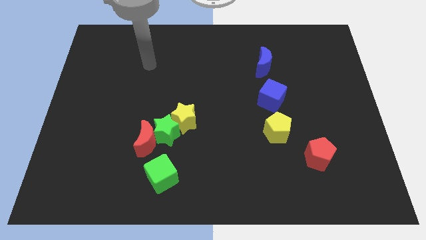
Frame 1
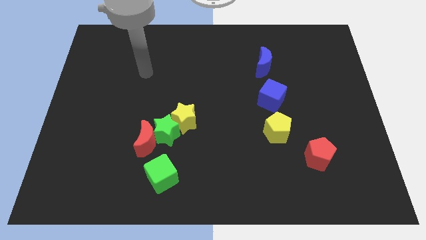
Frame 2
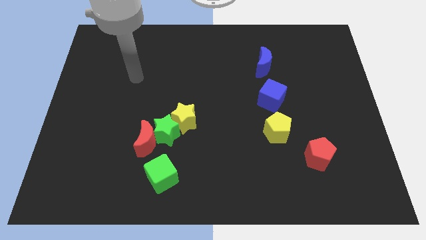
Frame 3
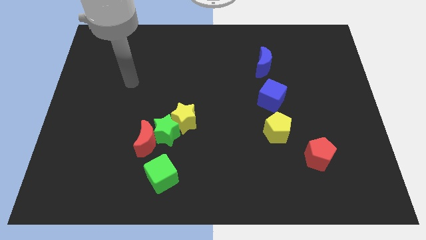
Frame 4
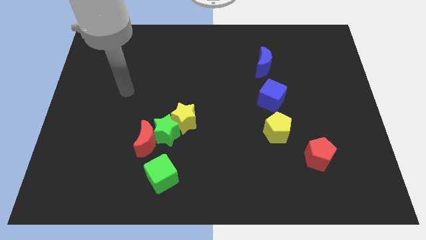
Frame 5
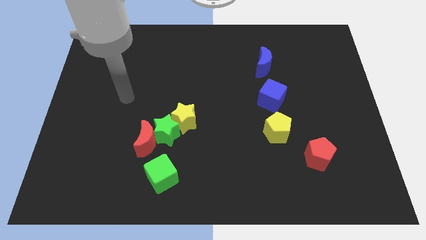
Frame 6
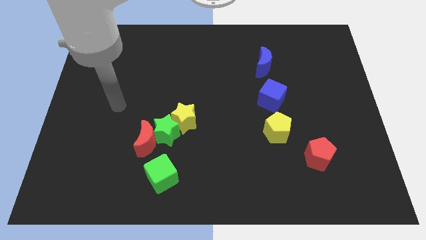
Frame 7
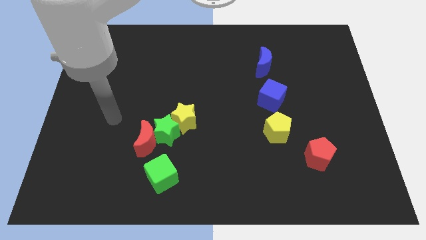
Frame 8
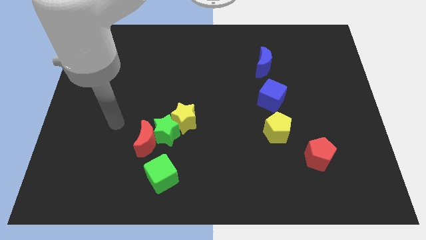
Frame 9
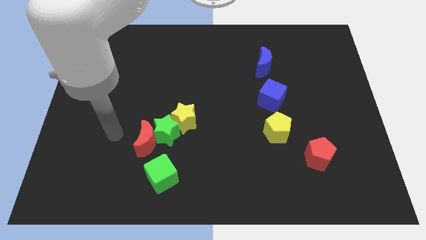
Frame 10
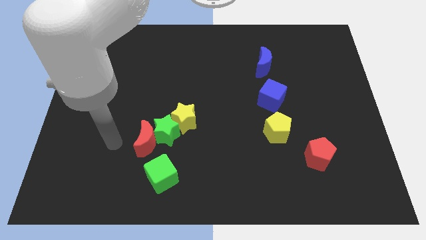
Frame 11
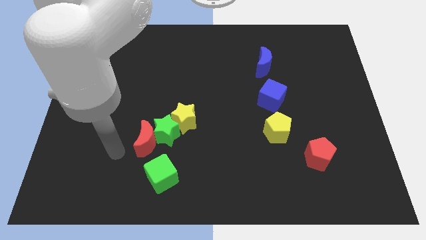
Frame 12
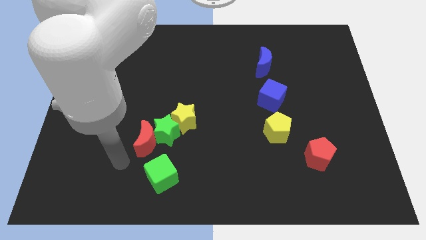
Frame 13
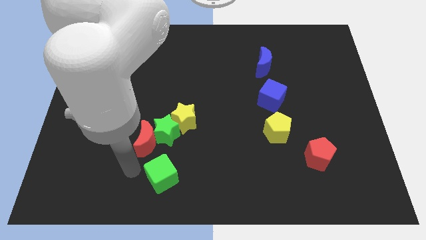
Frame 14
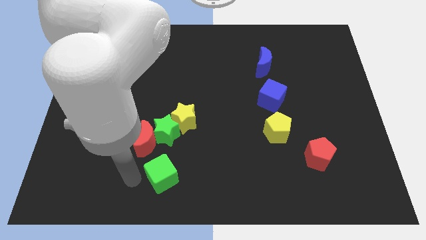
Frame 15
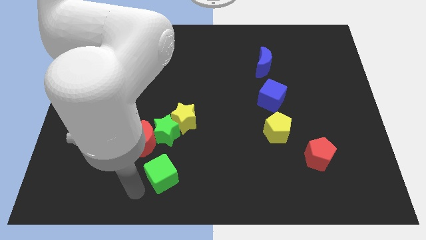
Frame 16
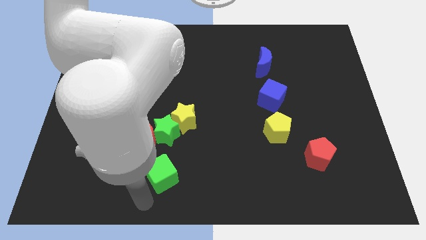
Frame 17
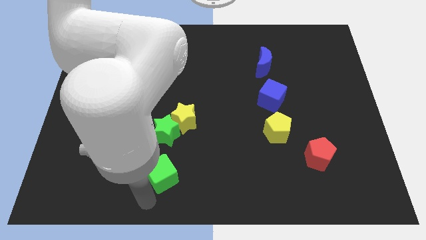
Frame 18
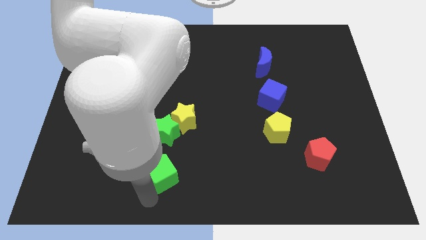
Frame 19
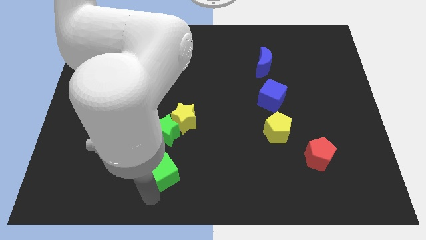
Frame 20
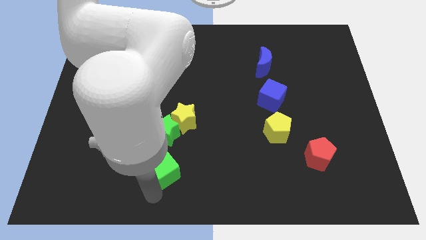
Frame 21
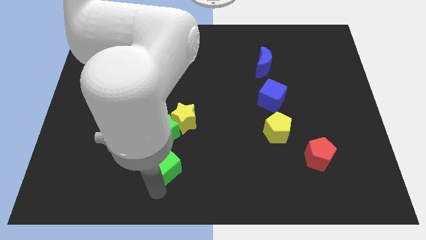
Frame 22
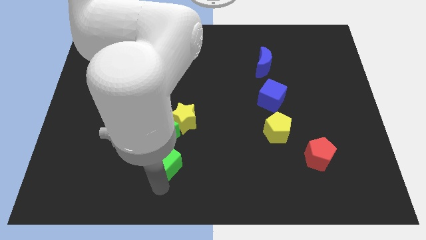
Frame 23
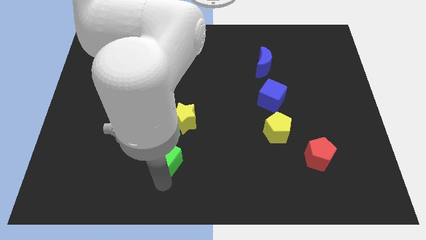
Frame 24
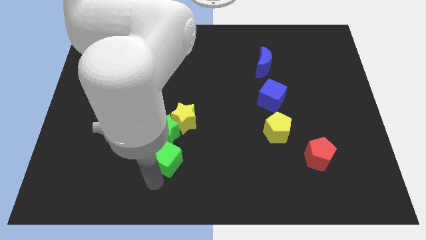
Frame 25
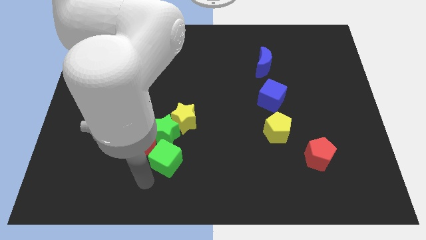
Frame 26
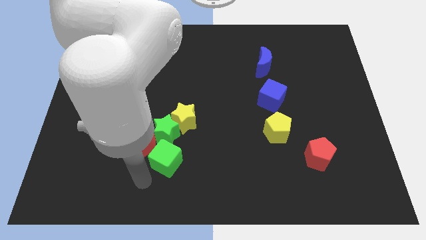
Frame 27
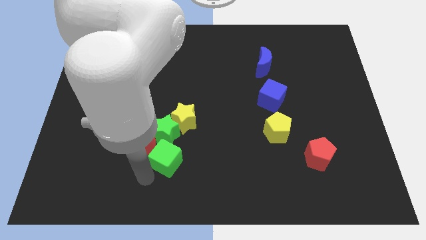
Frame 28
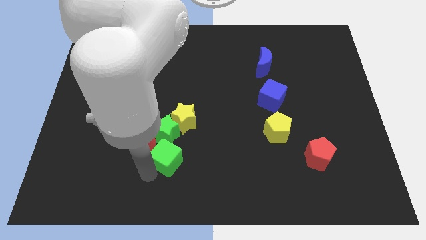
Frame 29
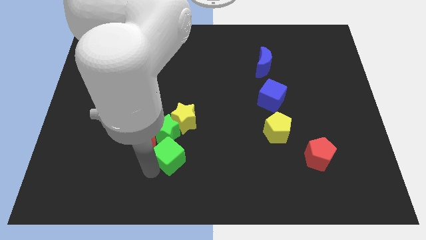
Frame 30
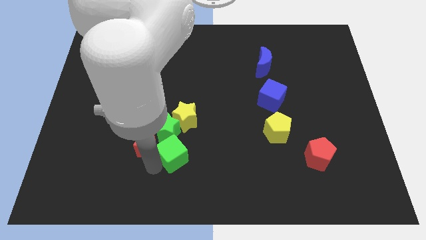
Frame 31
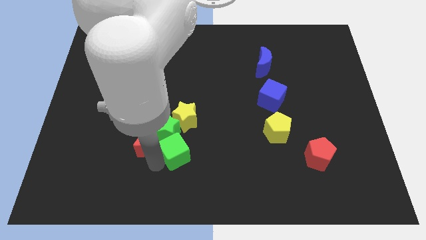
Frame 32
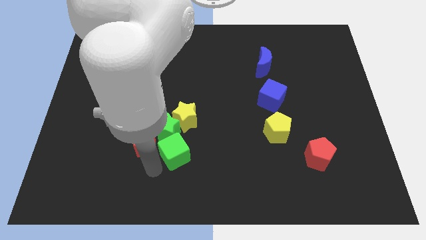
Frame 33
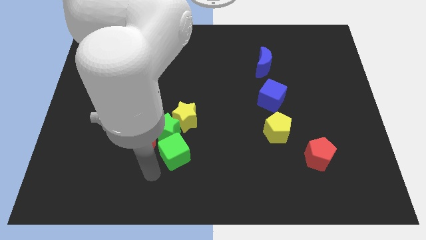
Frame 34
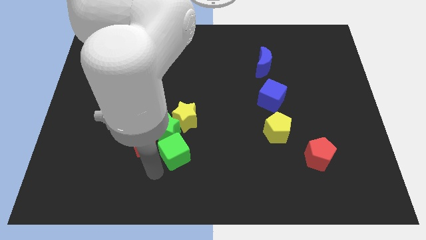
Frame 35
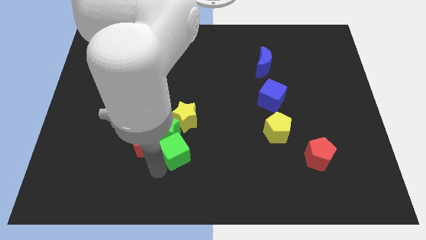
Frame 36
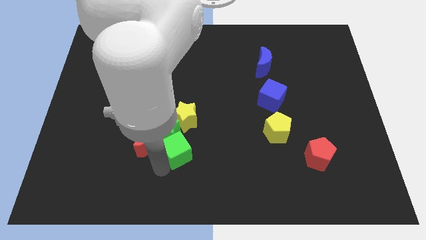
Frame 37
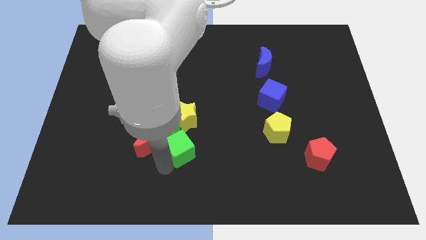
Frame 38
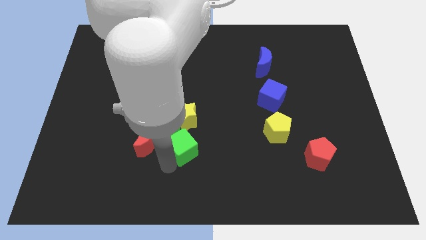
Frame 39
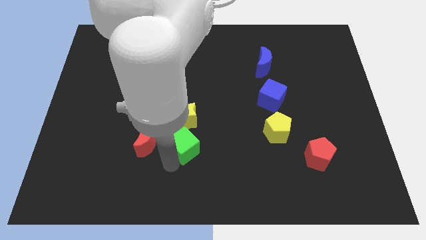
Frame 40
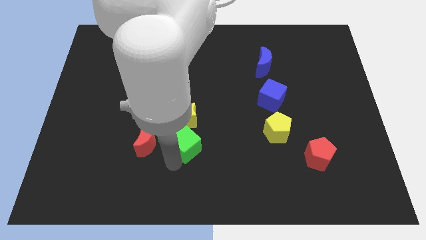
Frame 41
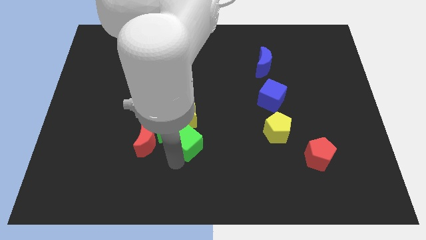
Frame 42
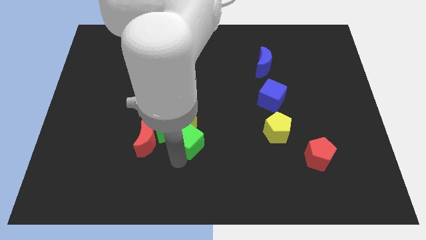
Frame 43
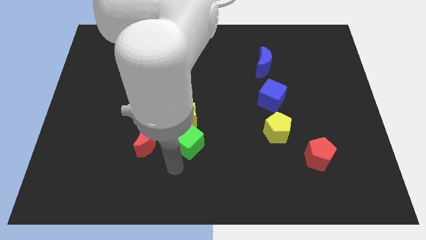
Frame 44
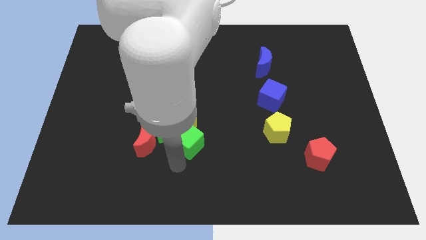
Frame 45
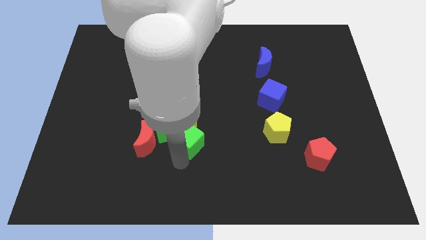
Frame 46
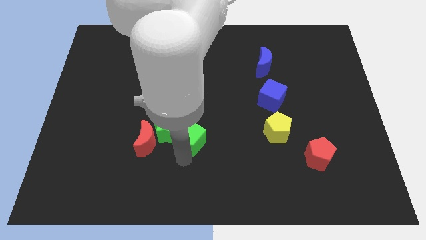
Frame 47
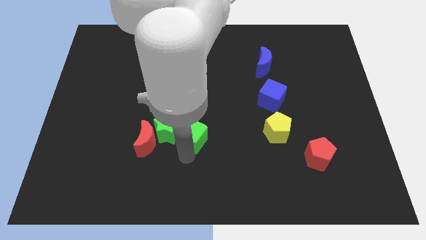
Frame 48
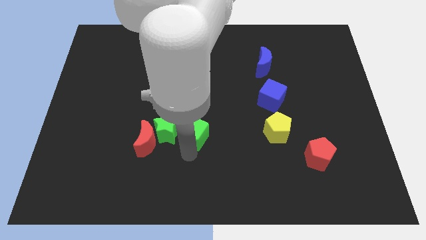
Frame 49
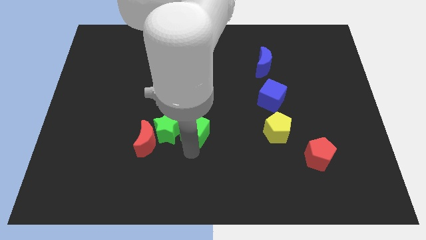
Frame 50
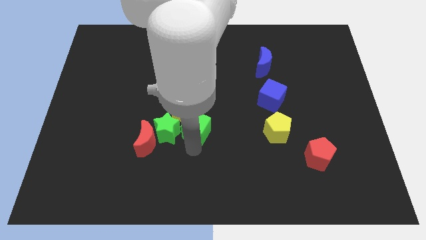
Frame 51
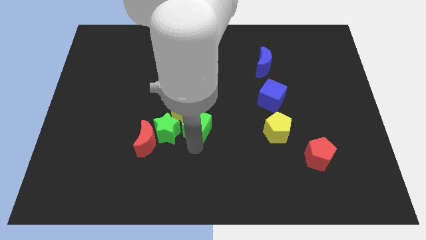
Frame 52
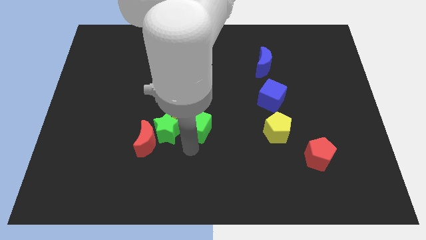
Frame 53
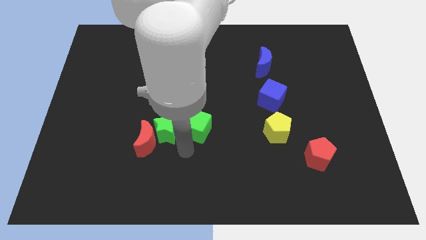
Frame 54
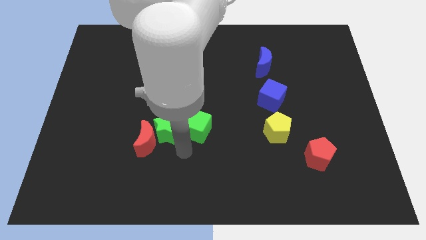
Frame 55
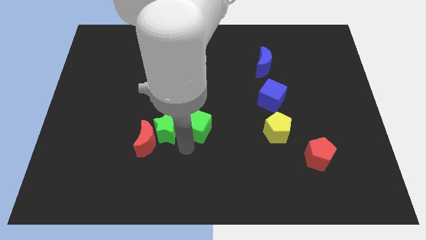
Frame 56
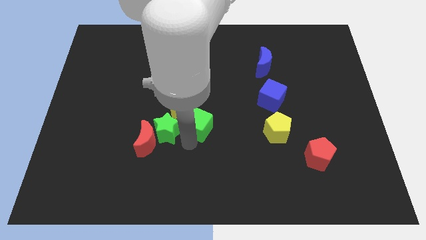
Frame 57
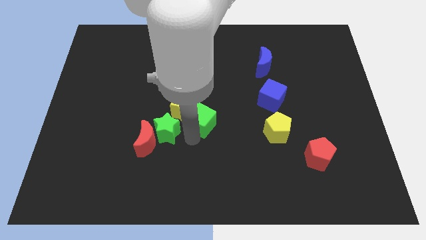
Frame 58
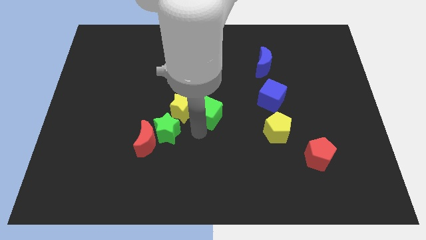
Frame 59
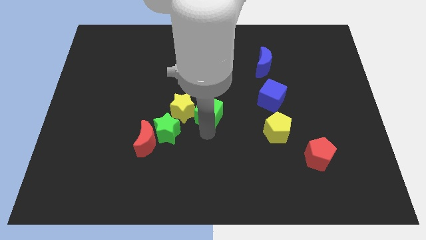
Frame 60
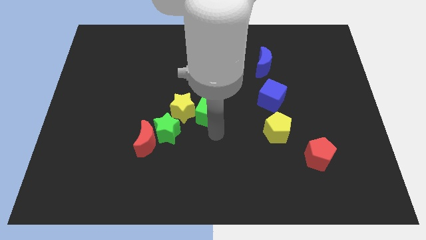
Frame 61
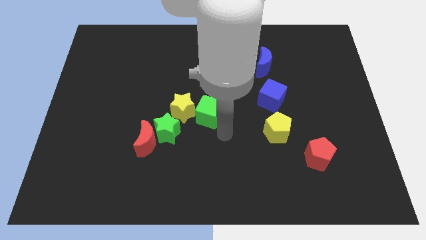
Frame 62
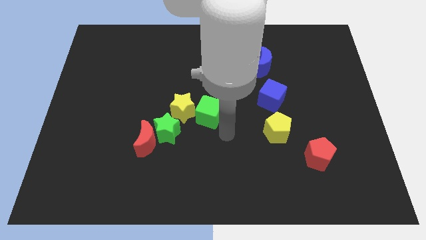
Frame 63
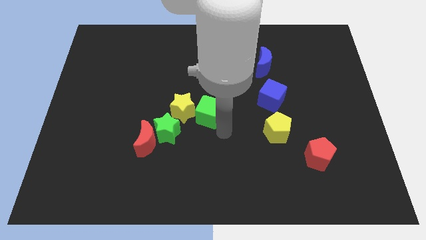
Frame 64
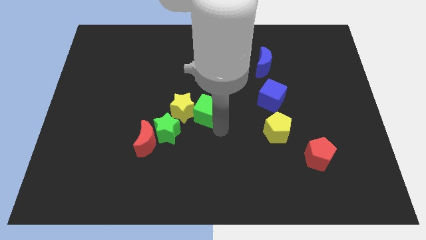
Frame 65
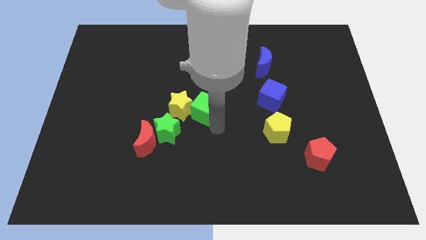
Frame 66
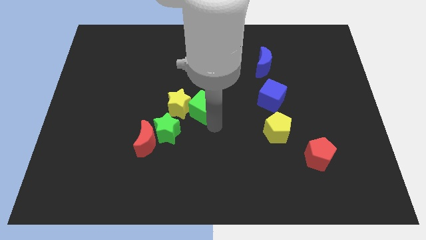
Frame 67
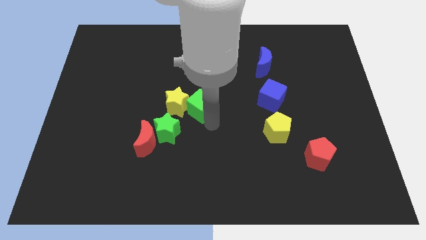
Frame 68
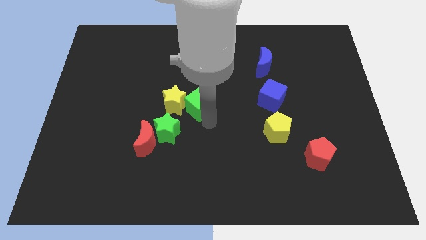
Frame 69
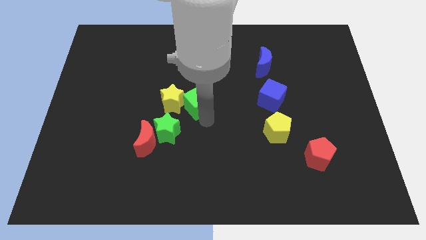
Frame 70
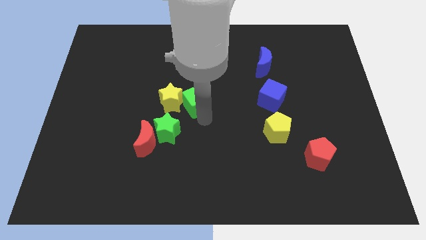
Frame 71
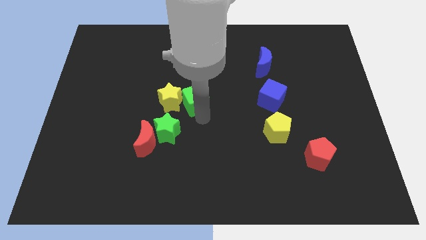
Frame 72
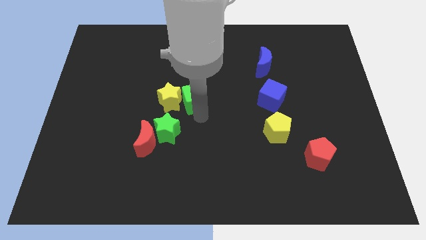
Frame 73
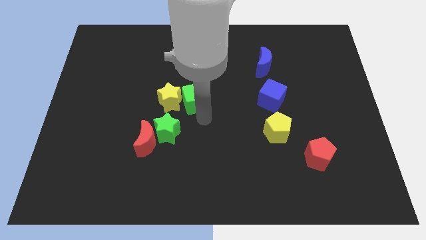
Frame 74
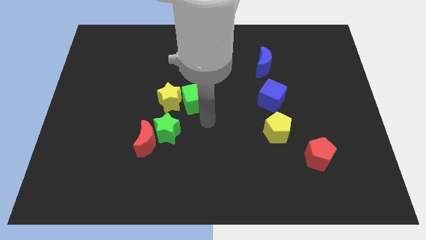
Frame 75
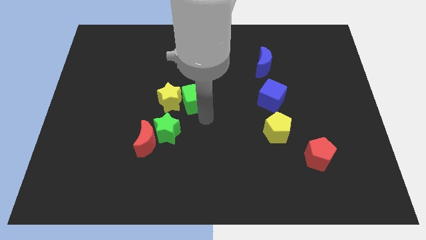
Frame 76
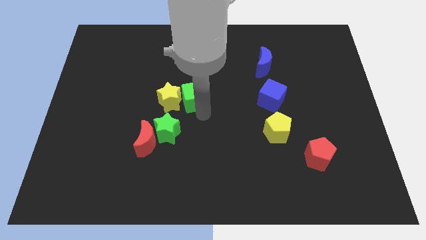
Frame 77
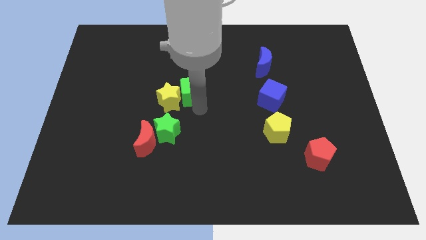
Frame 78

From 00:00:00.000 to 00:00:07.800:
move the green cube up
